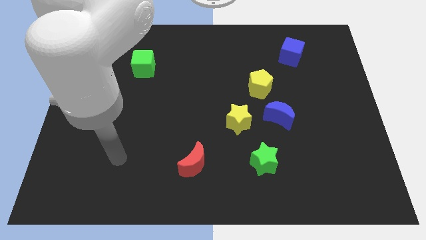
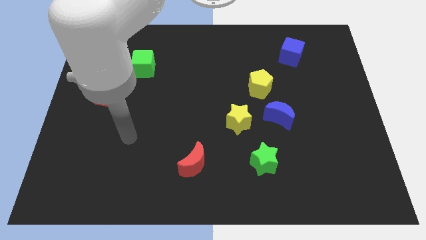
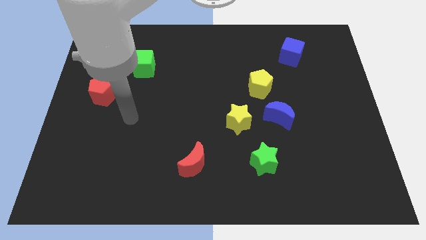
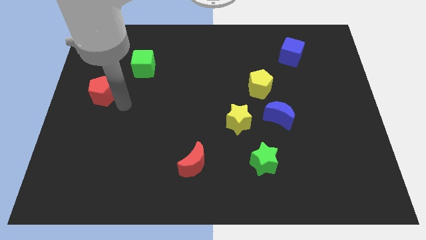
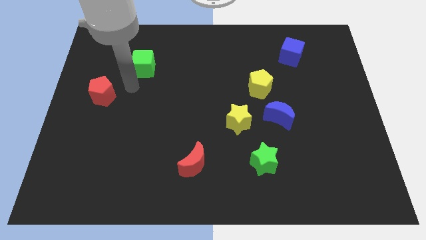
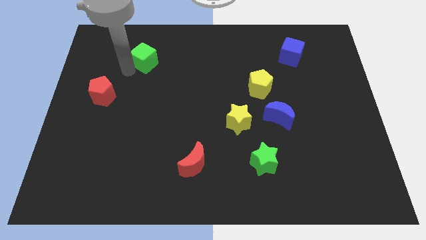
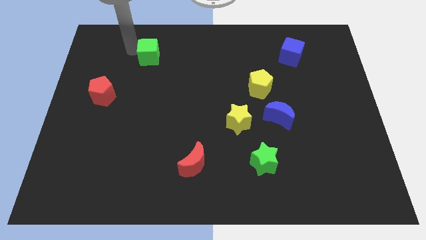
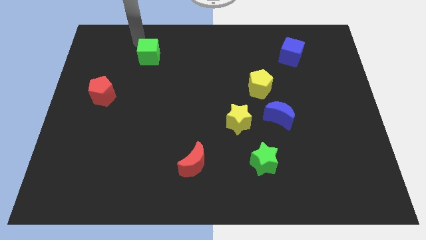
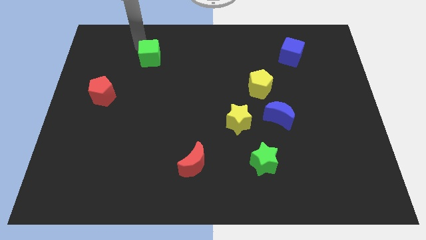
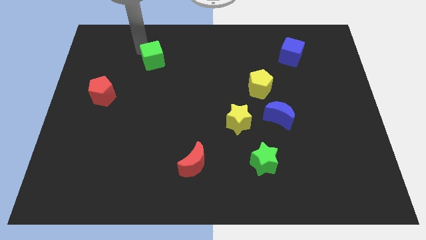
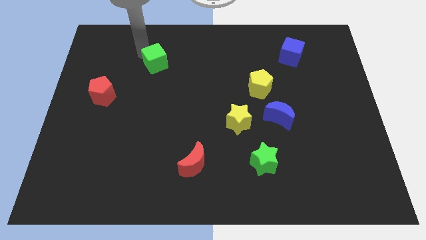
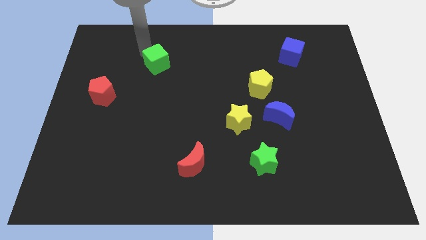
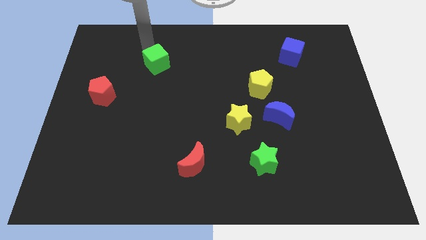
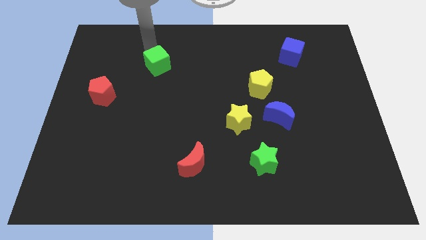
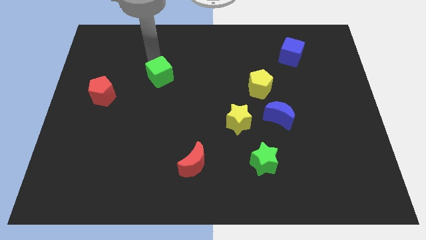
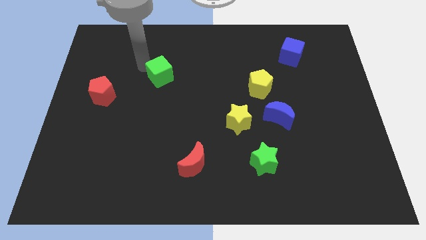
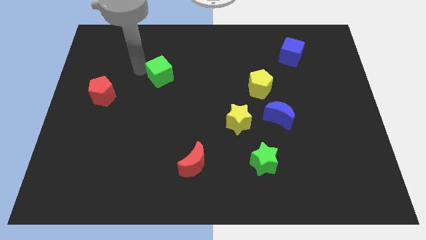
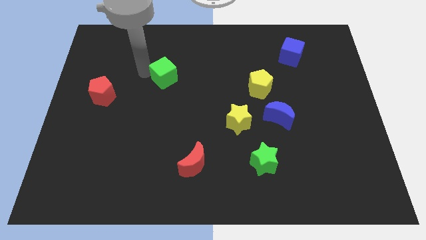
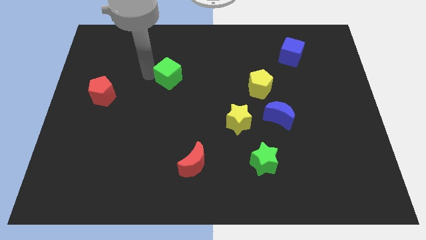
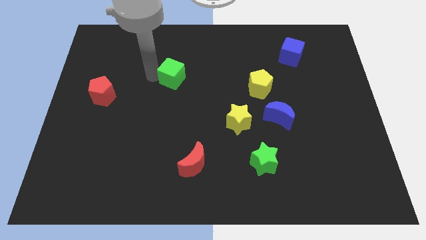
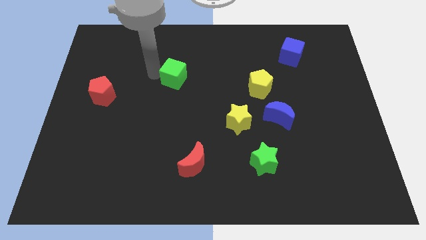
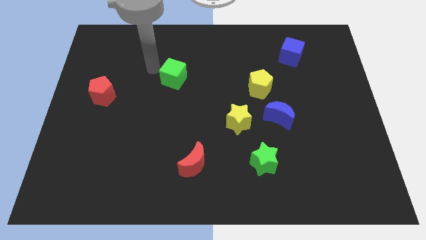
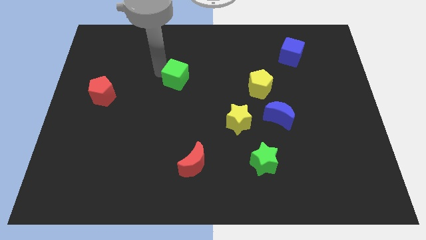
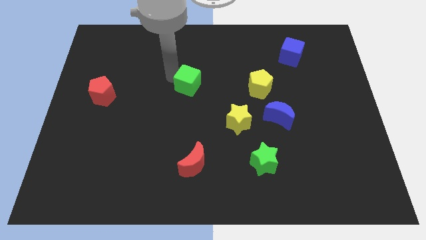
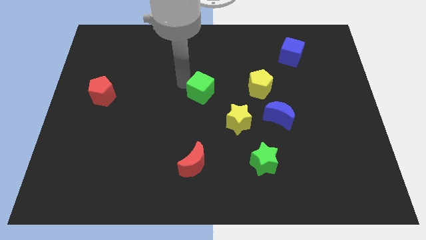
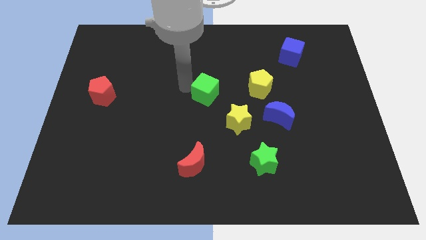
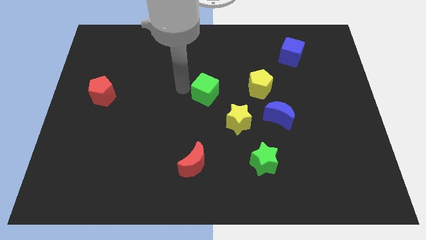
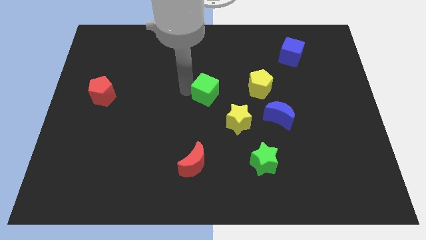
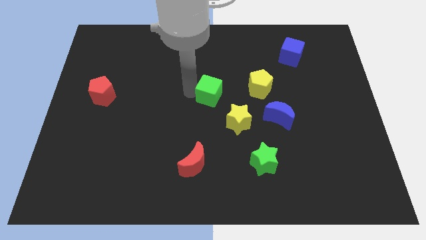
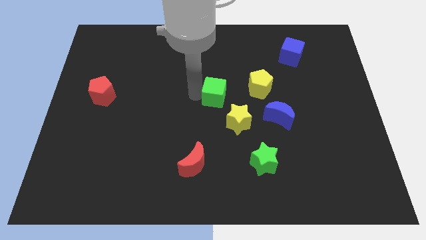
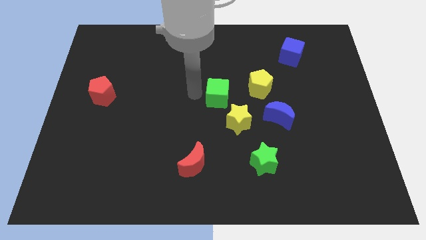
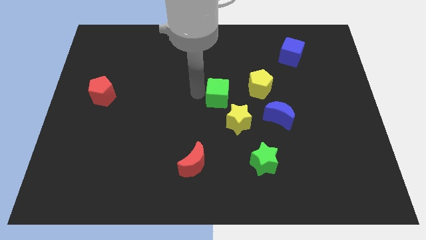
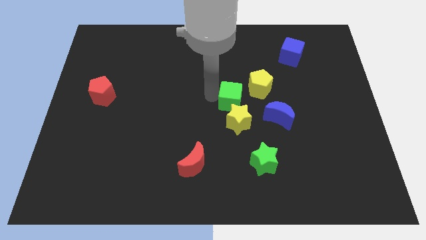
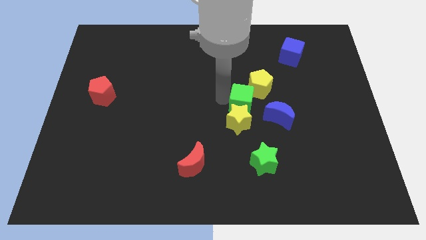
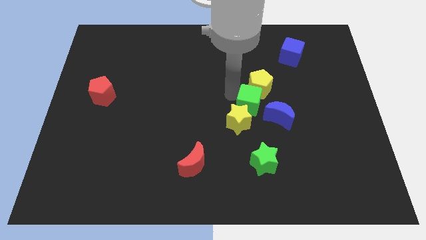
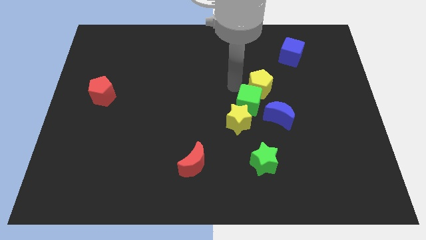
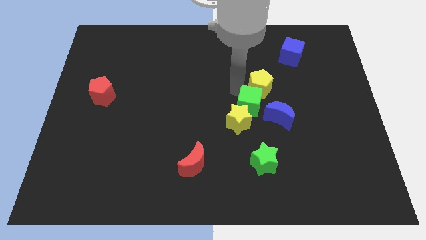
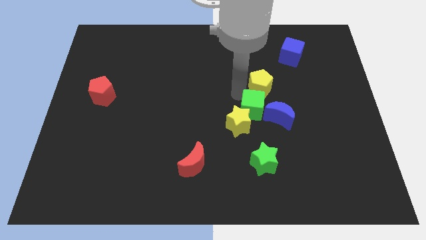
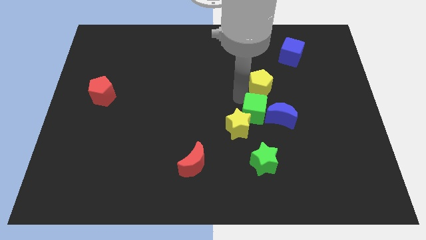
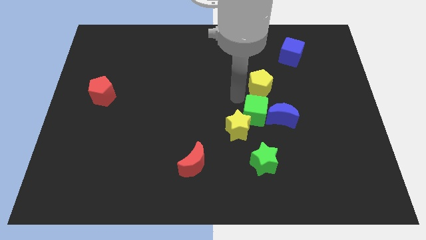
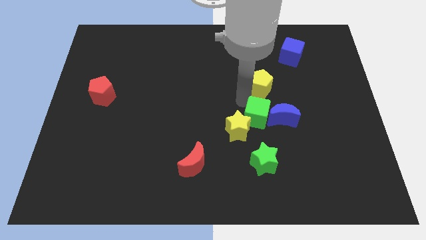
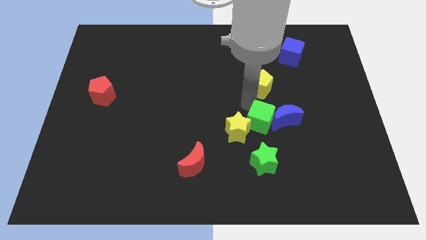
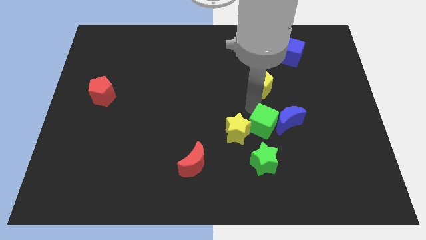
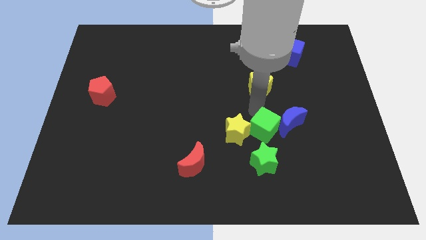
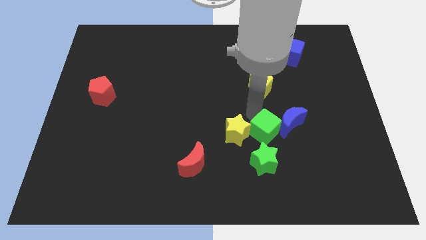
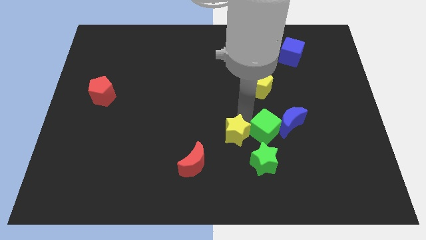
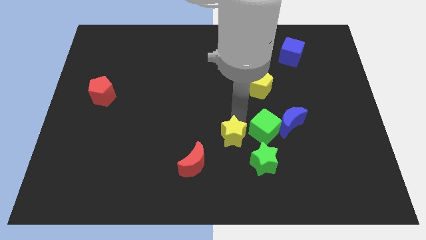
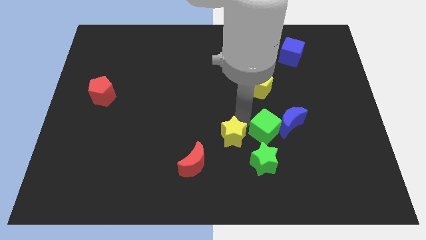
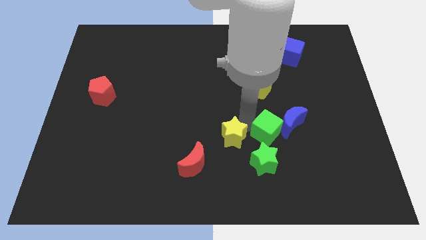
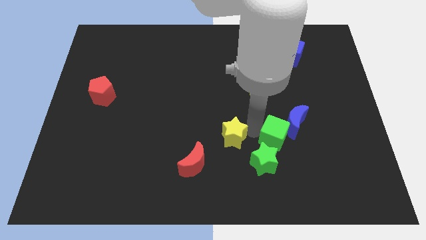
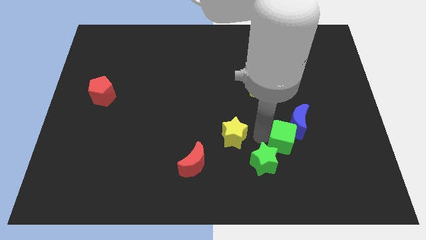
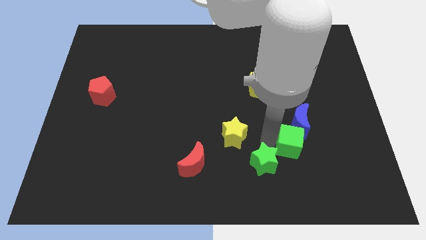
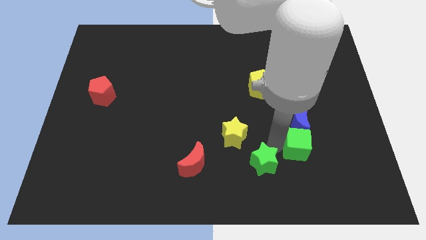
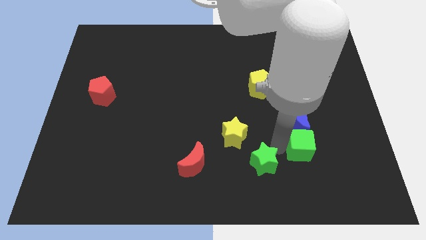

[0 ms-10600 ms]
move the green cube to the bottom right of the blue moon

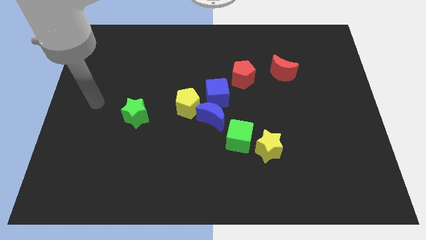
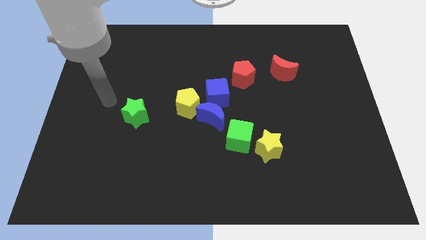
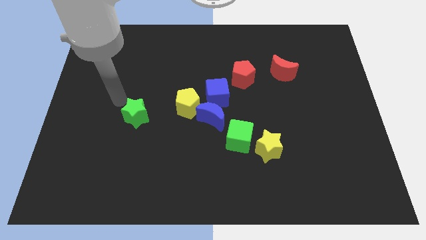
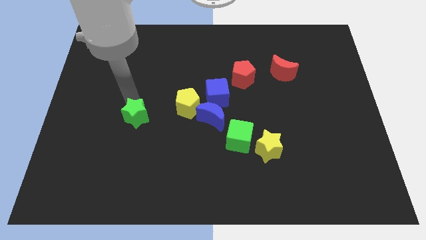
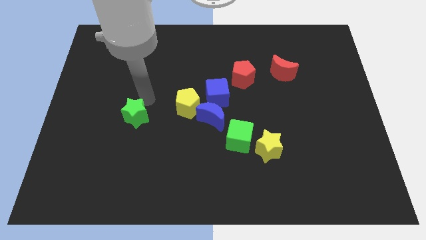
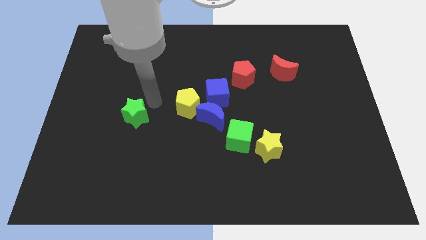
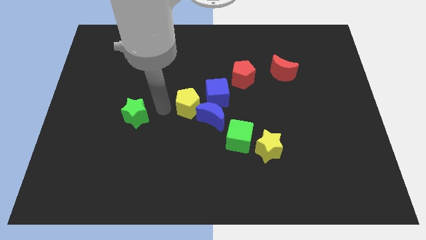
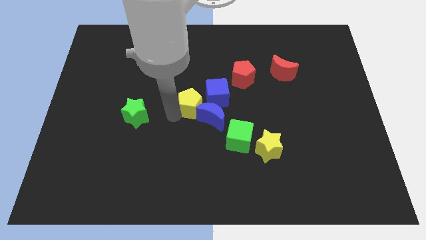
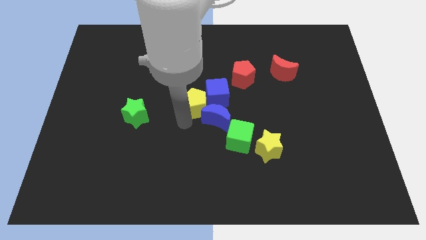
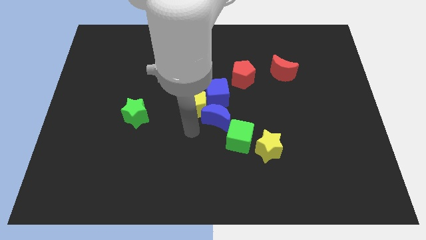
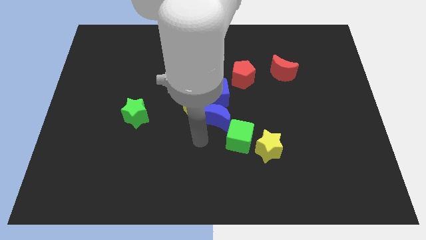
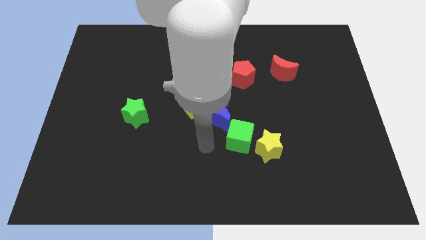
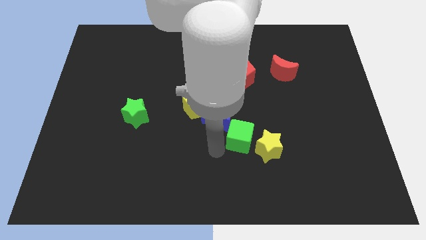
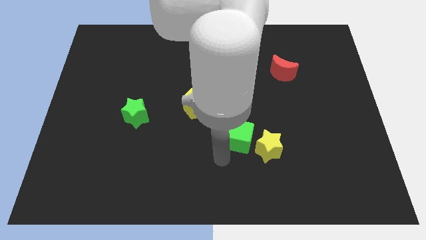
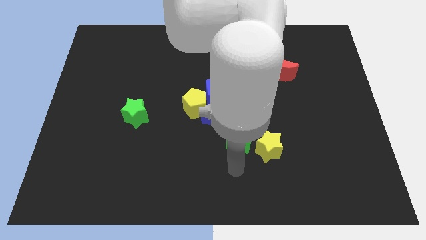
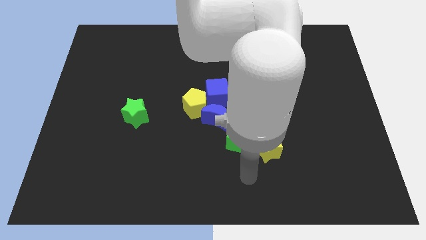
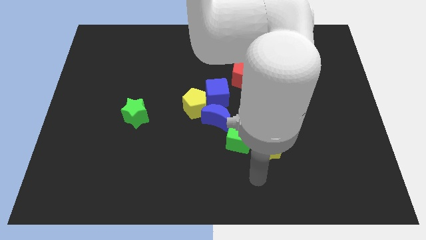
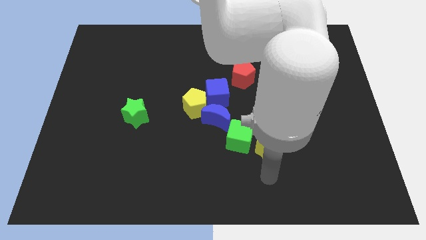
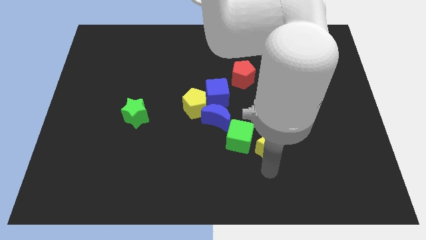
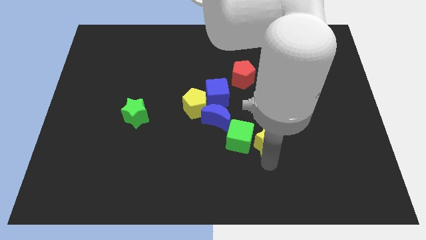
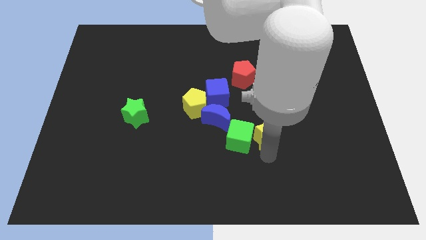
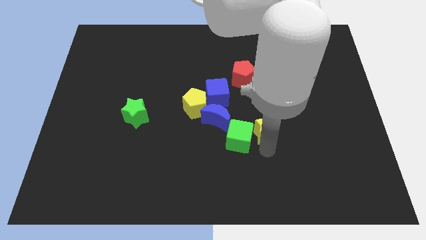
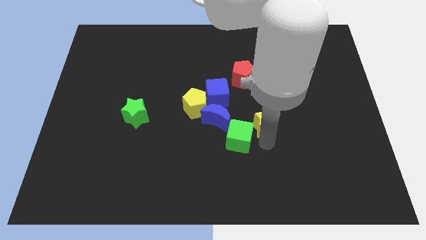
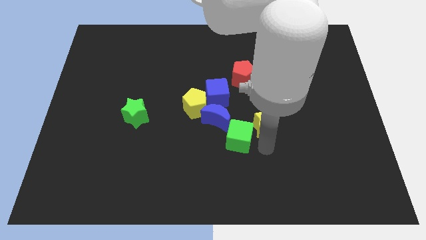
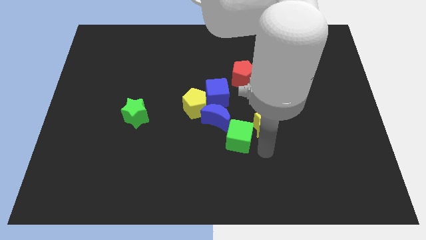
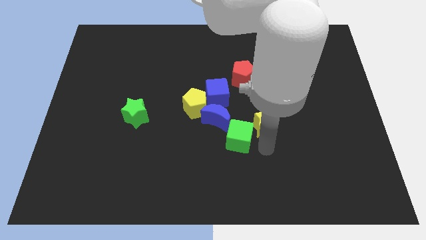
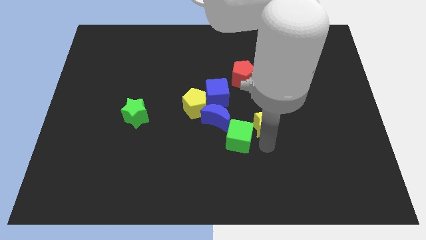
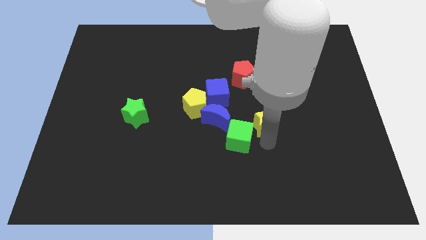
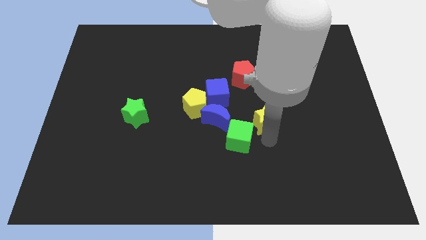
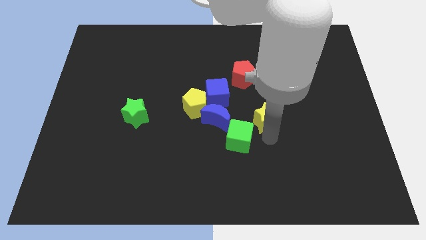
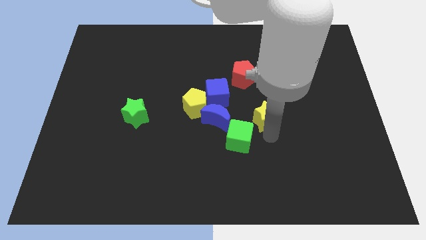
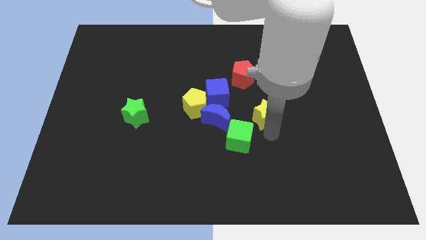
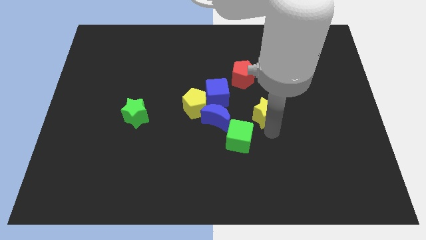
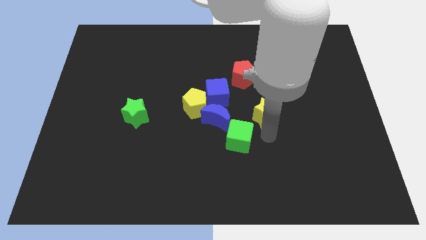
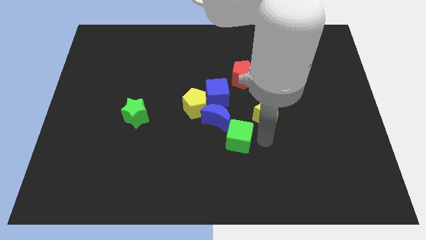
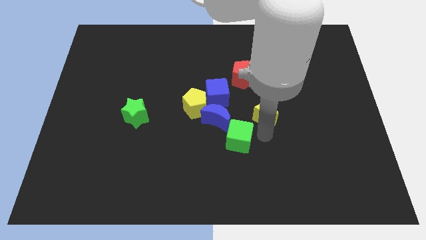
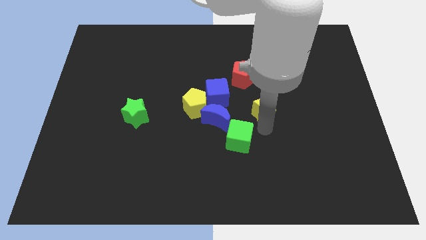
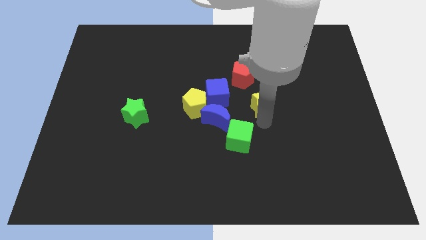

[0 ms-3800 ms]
move the yellow star to the bottom right side of the red pentagon
